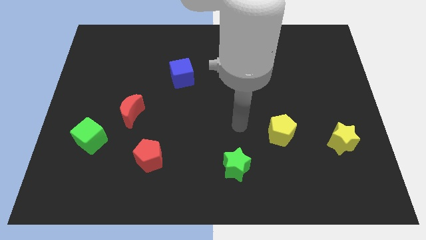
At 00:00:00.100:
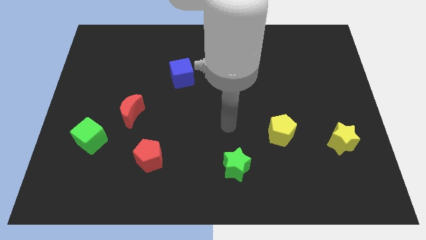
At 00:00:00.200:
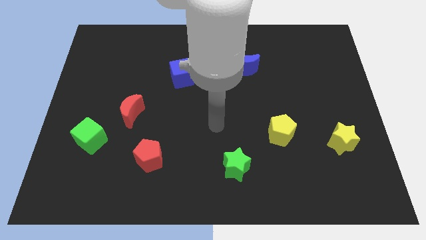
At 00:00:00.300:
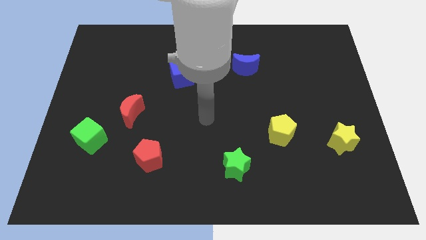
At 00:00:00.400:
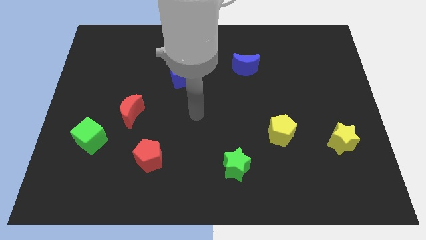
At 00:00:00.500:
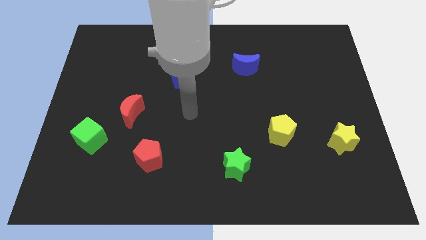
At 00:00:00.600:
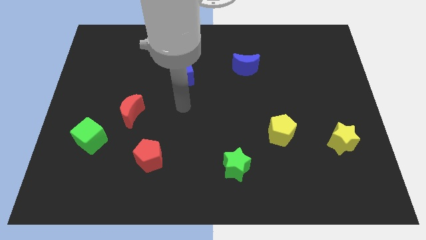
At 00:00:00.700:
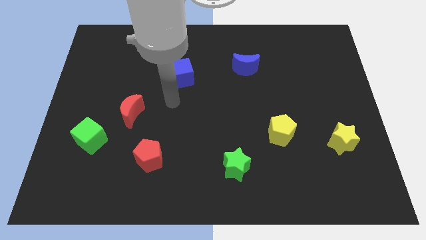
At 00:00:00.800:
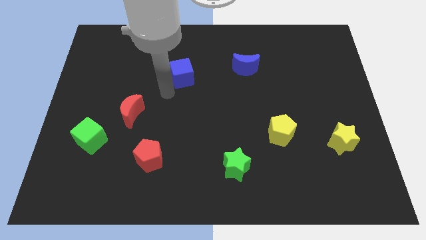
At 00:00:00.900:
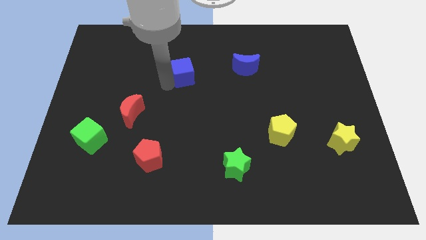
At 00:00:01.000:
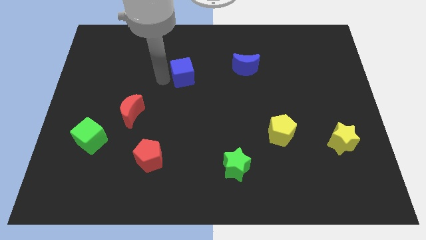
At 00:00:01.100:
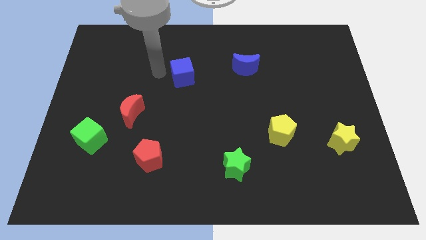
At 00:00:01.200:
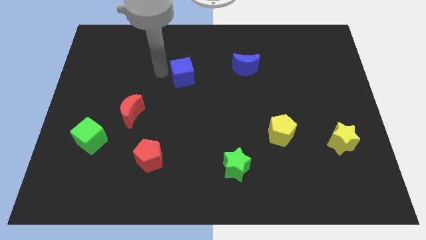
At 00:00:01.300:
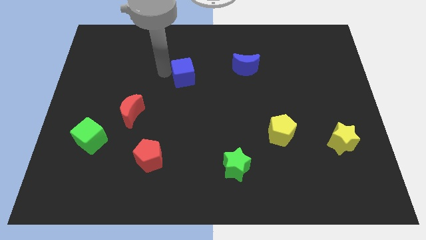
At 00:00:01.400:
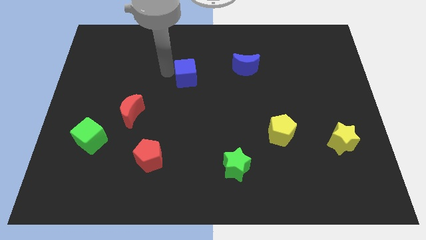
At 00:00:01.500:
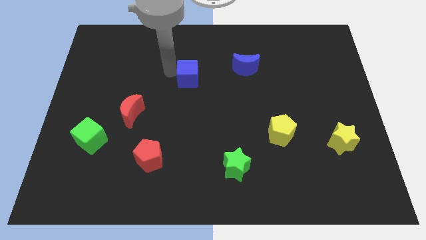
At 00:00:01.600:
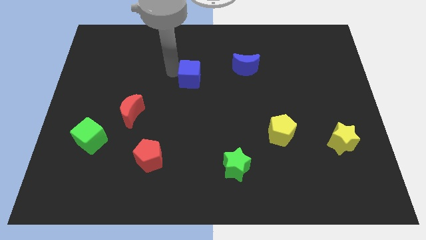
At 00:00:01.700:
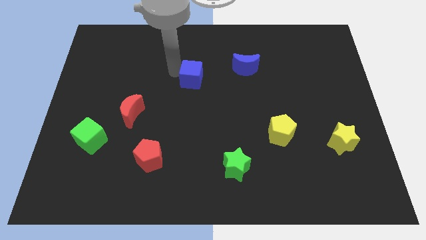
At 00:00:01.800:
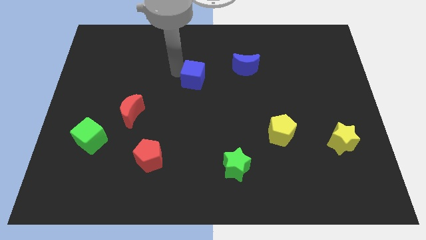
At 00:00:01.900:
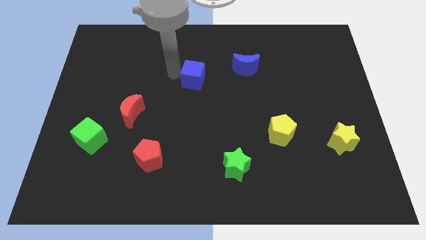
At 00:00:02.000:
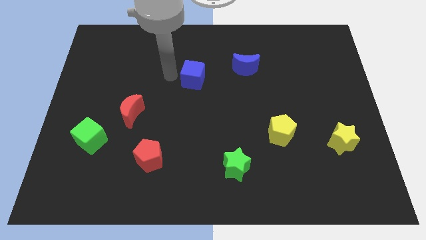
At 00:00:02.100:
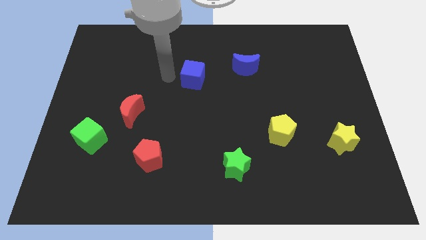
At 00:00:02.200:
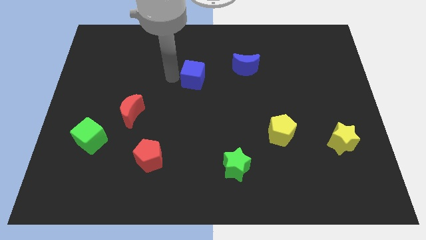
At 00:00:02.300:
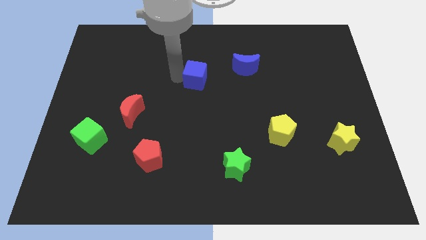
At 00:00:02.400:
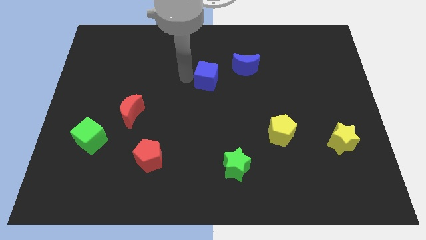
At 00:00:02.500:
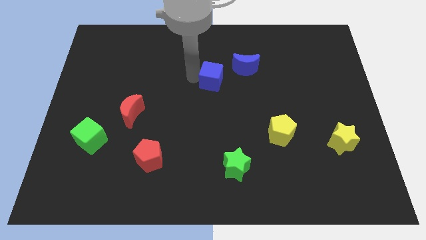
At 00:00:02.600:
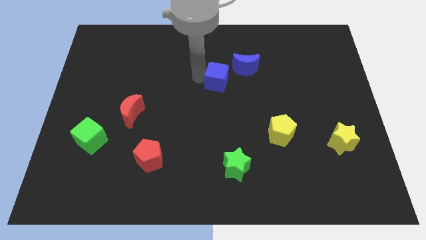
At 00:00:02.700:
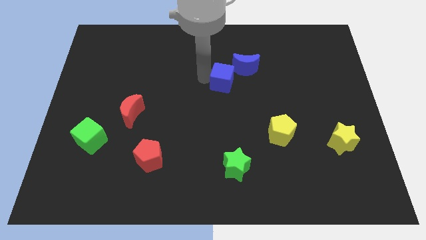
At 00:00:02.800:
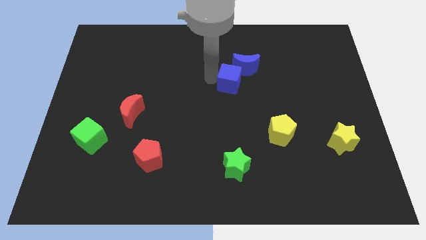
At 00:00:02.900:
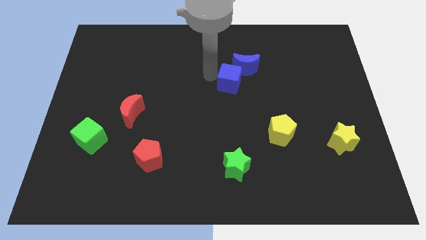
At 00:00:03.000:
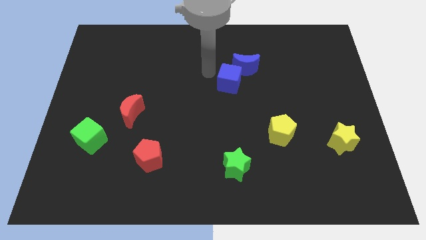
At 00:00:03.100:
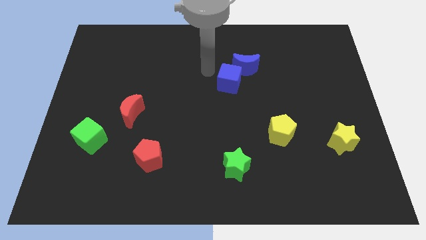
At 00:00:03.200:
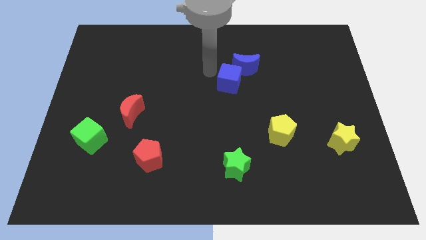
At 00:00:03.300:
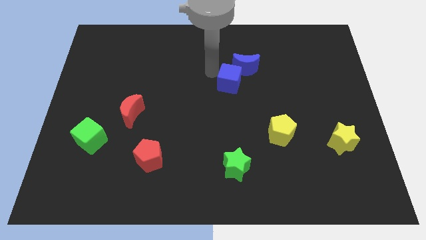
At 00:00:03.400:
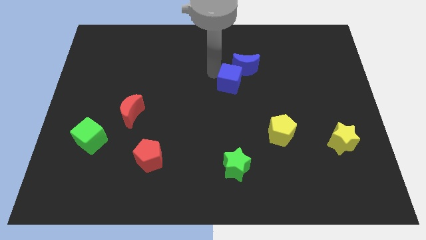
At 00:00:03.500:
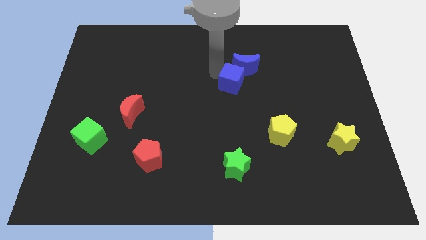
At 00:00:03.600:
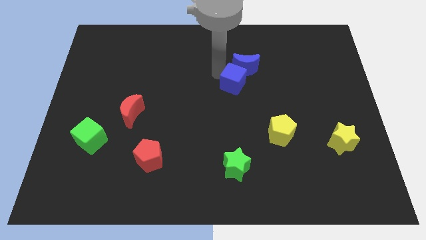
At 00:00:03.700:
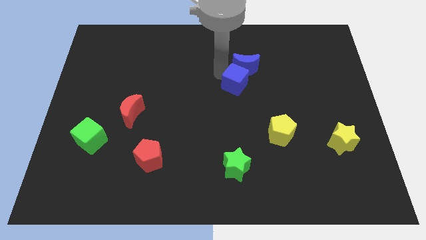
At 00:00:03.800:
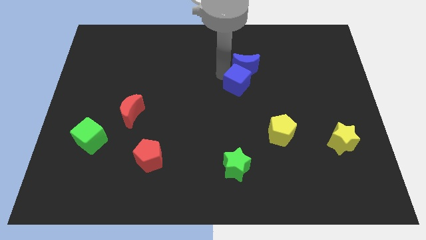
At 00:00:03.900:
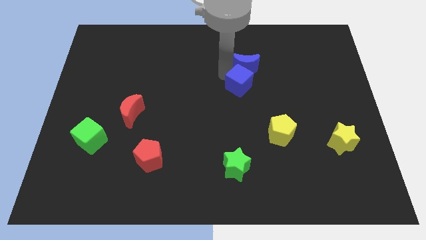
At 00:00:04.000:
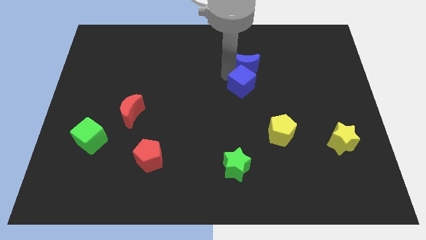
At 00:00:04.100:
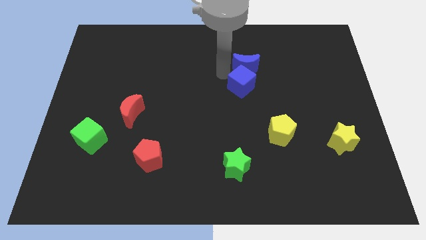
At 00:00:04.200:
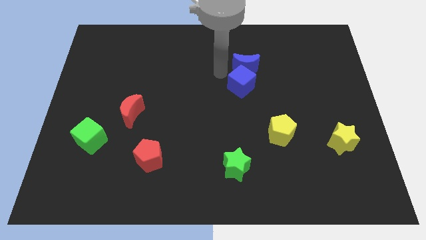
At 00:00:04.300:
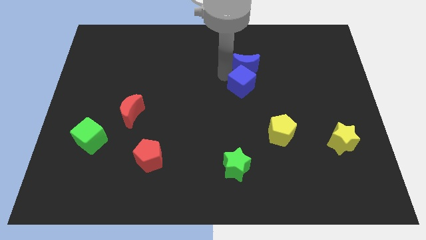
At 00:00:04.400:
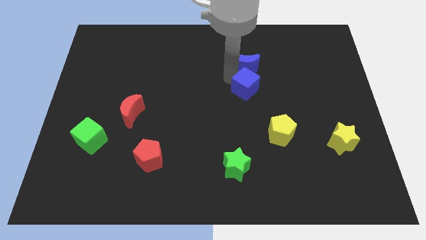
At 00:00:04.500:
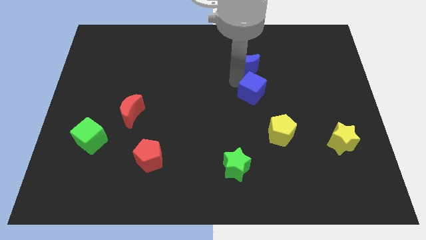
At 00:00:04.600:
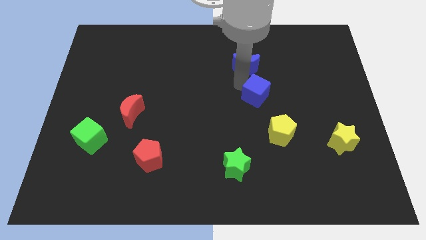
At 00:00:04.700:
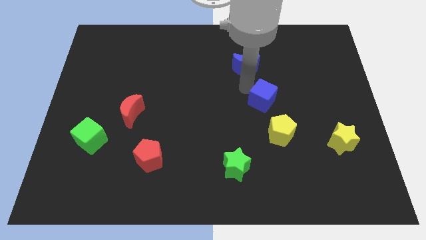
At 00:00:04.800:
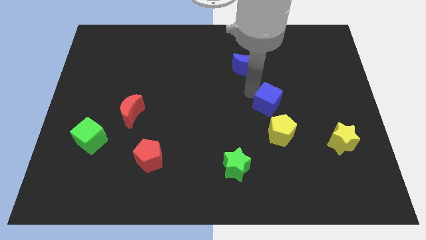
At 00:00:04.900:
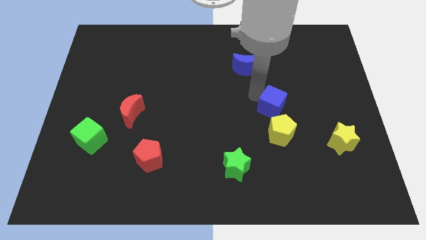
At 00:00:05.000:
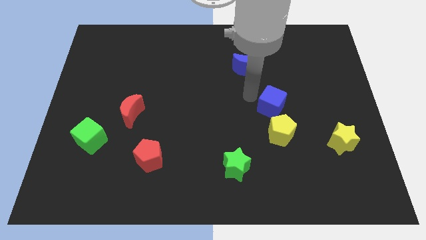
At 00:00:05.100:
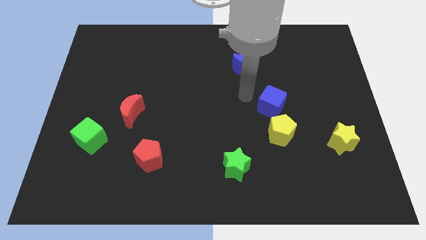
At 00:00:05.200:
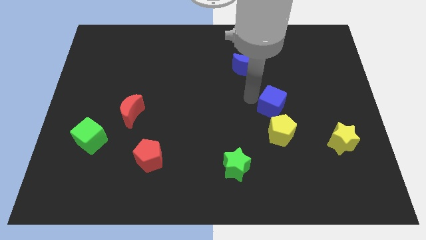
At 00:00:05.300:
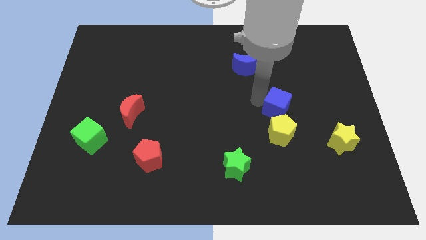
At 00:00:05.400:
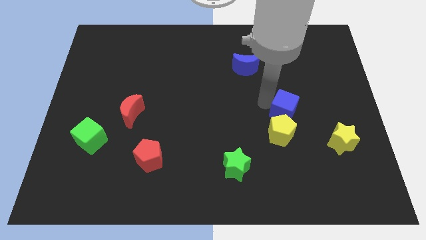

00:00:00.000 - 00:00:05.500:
put the blue cube diagonally up and to the right of the yellow pentagon

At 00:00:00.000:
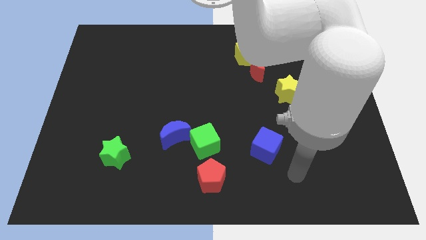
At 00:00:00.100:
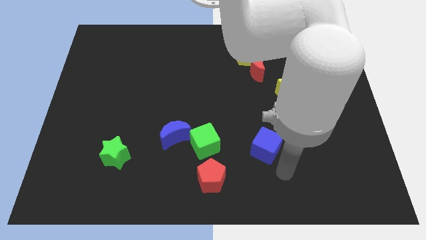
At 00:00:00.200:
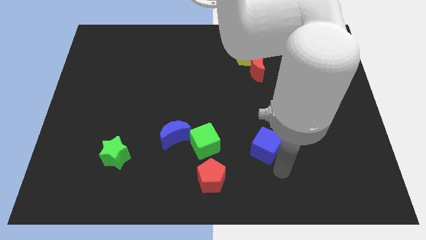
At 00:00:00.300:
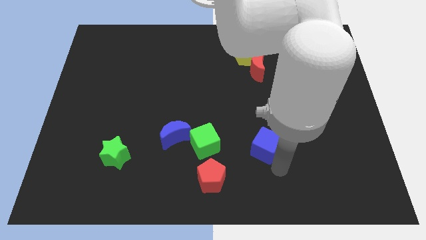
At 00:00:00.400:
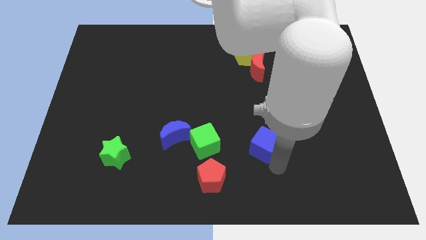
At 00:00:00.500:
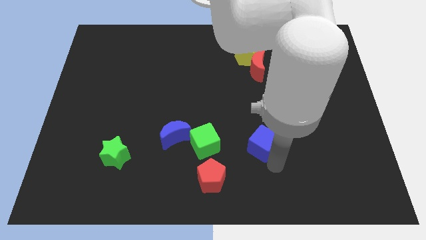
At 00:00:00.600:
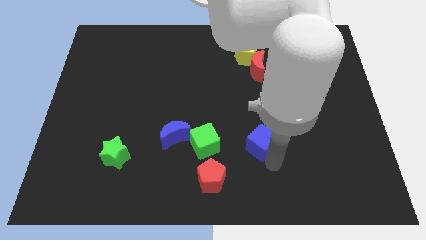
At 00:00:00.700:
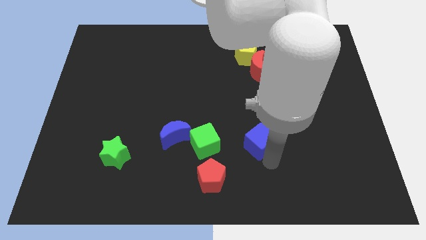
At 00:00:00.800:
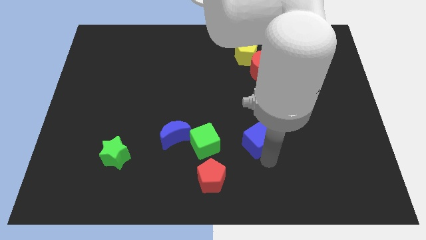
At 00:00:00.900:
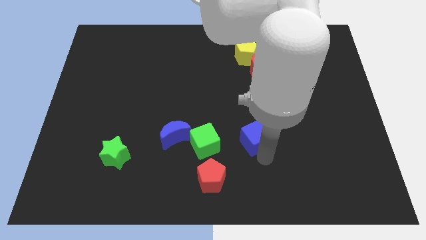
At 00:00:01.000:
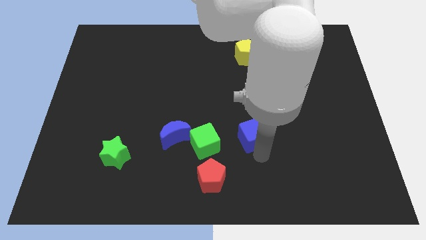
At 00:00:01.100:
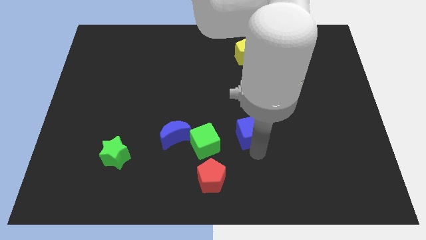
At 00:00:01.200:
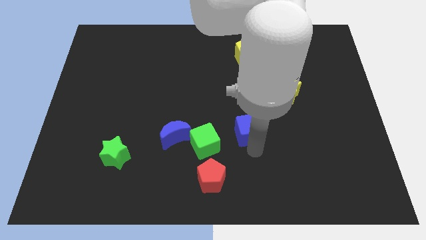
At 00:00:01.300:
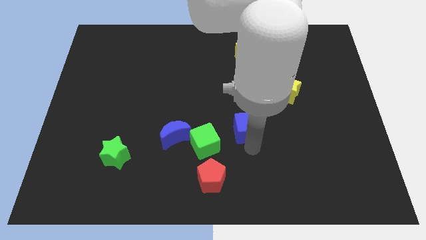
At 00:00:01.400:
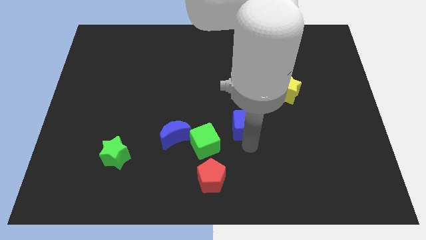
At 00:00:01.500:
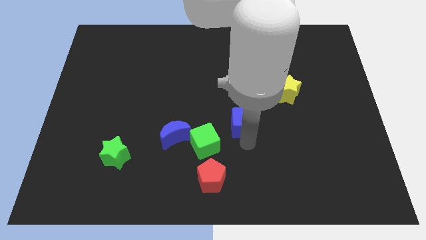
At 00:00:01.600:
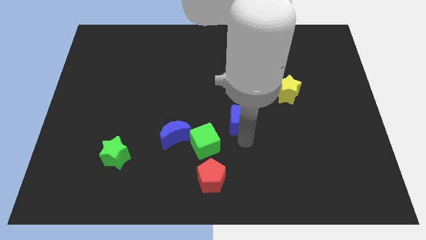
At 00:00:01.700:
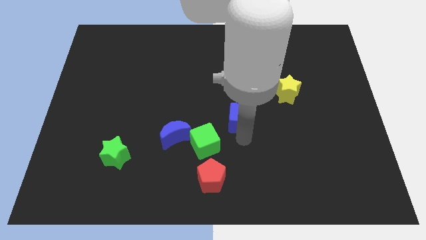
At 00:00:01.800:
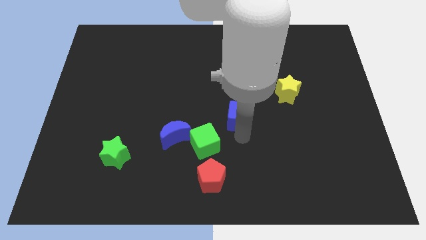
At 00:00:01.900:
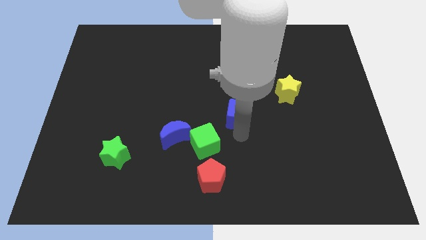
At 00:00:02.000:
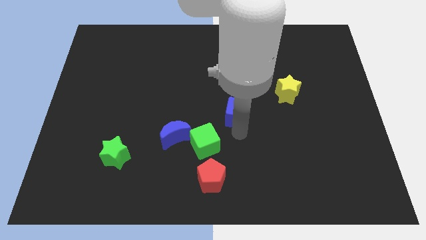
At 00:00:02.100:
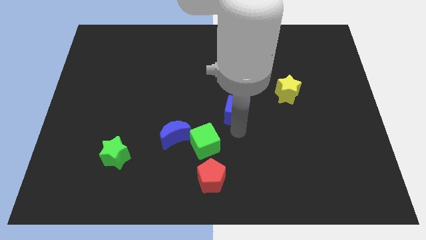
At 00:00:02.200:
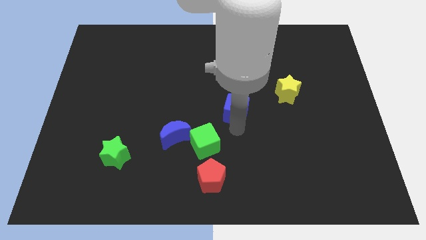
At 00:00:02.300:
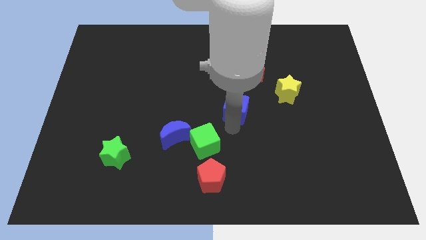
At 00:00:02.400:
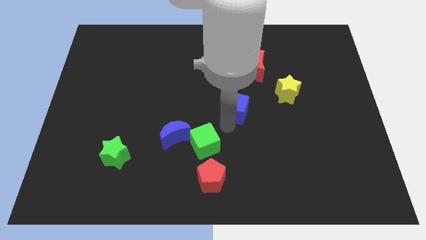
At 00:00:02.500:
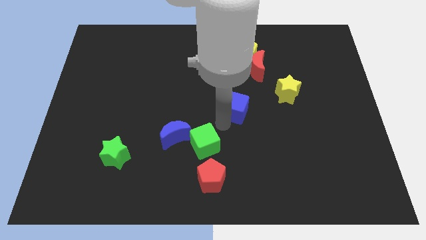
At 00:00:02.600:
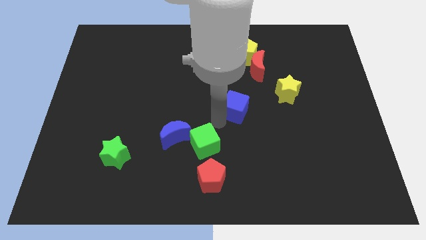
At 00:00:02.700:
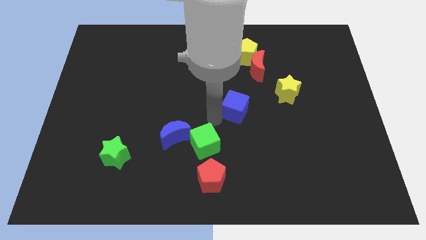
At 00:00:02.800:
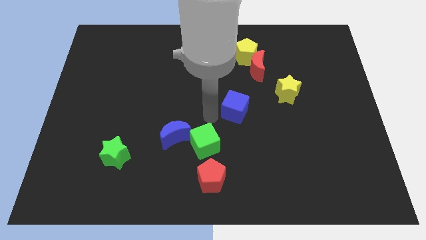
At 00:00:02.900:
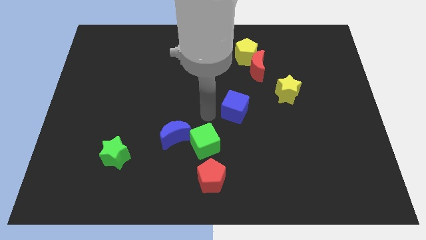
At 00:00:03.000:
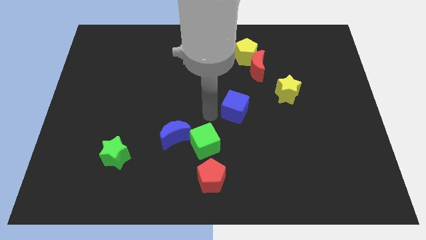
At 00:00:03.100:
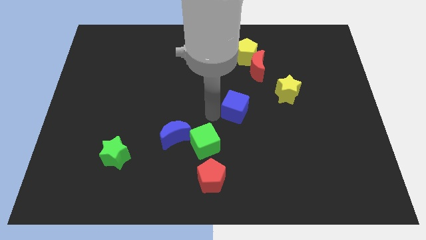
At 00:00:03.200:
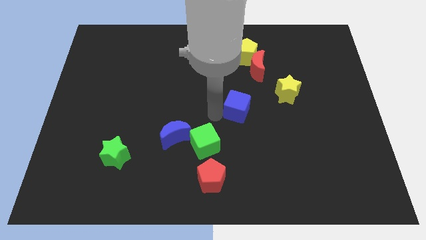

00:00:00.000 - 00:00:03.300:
move the blue cube just left of the yellow star
